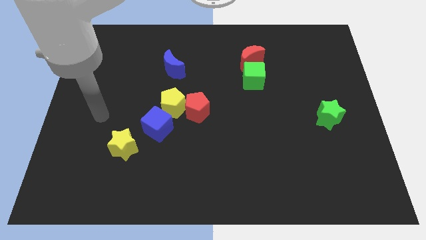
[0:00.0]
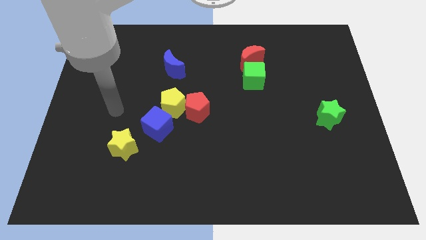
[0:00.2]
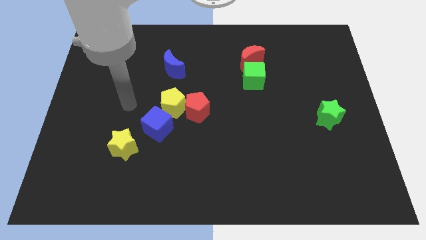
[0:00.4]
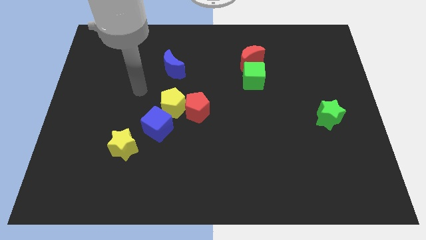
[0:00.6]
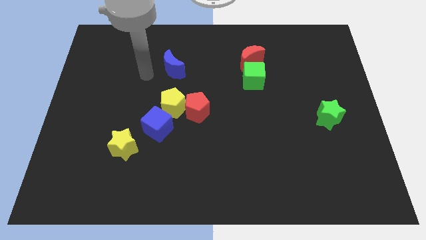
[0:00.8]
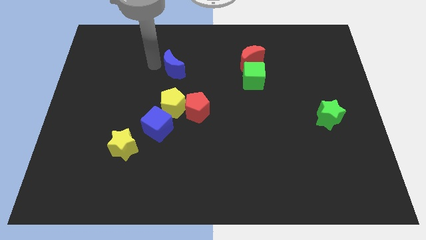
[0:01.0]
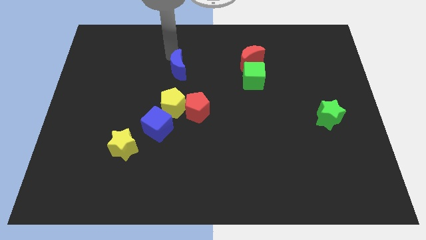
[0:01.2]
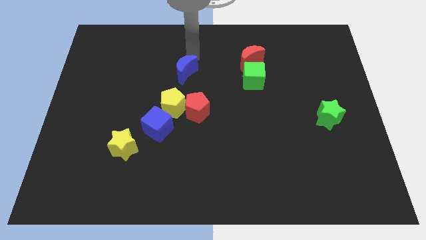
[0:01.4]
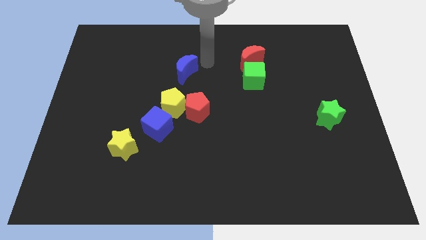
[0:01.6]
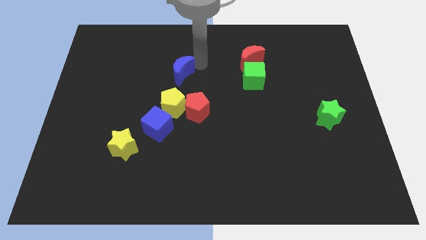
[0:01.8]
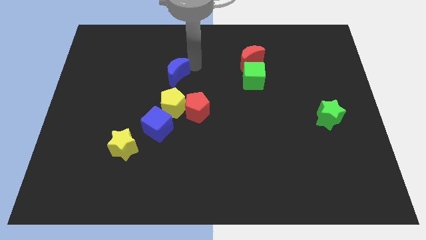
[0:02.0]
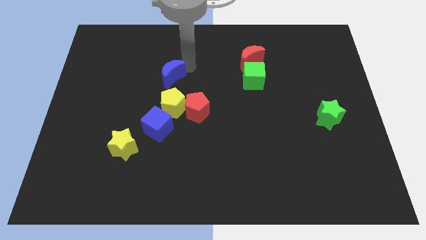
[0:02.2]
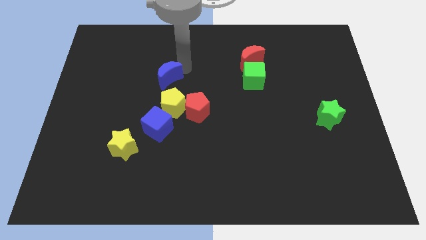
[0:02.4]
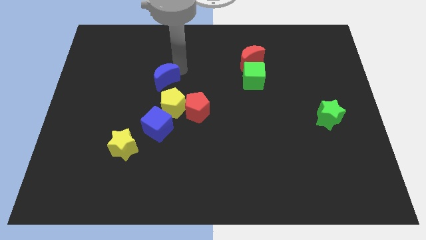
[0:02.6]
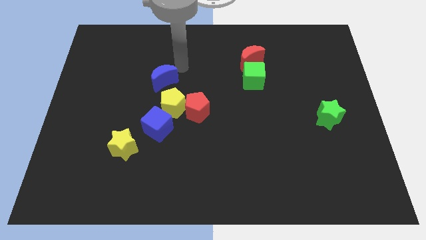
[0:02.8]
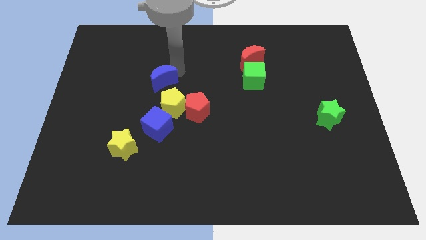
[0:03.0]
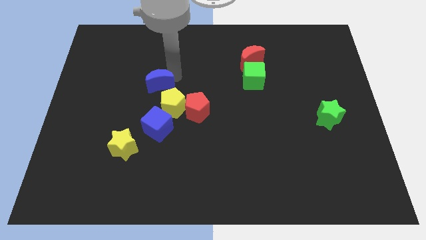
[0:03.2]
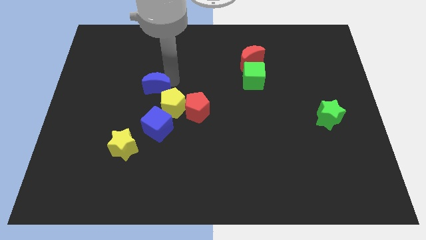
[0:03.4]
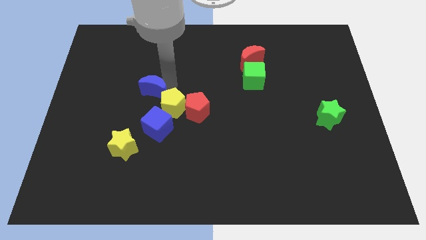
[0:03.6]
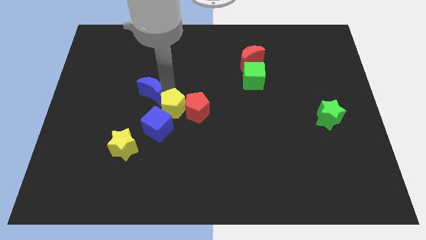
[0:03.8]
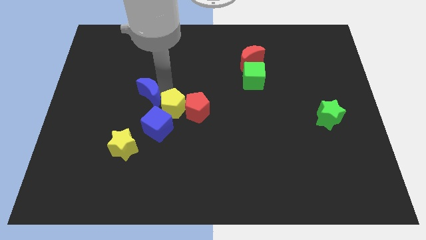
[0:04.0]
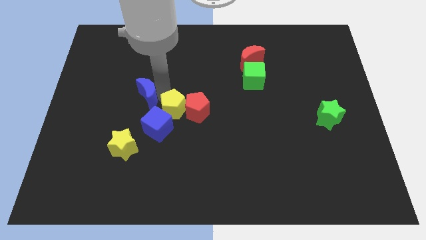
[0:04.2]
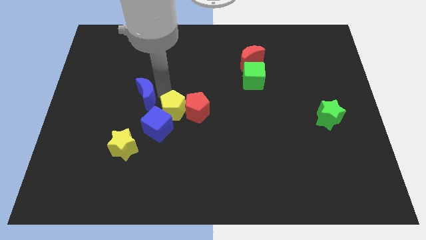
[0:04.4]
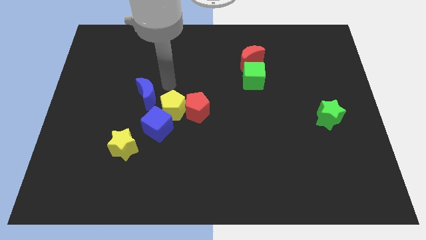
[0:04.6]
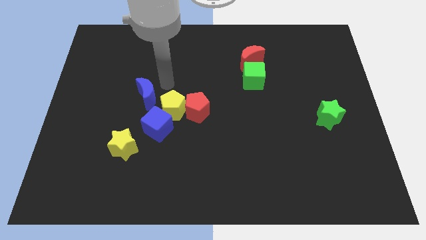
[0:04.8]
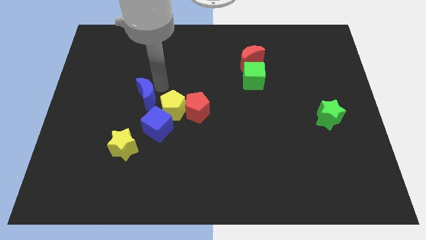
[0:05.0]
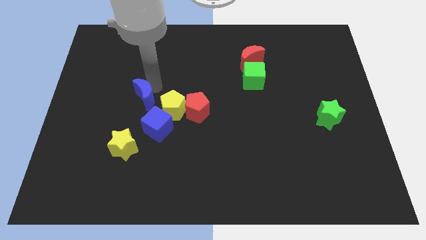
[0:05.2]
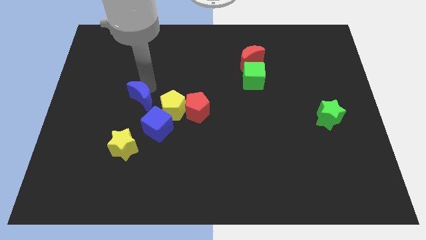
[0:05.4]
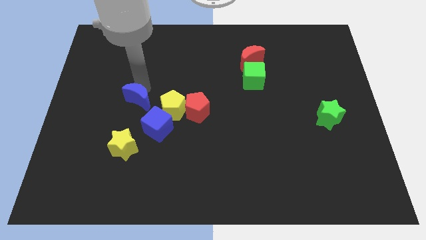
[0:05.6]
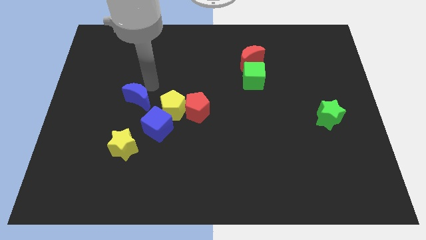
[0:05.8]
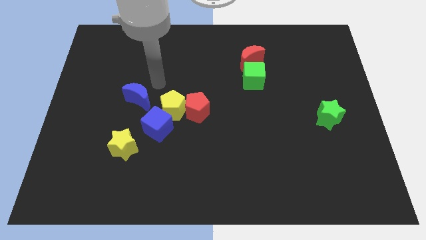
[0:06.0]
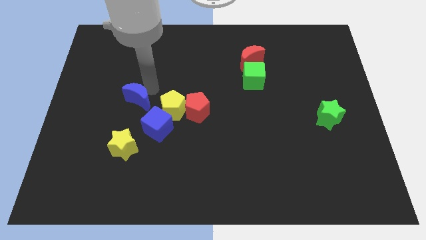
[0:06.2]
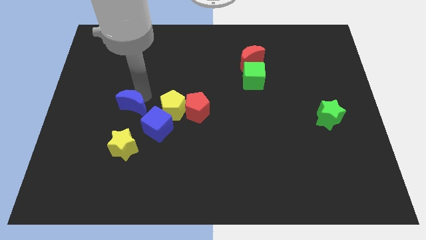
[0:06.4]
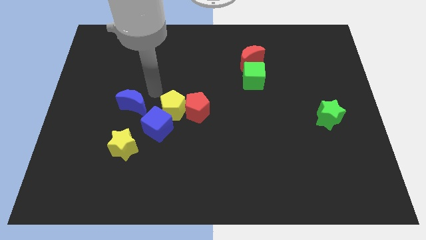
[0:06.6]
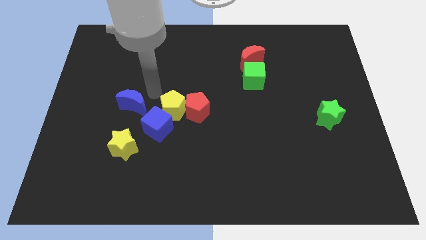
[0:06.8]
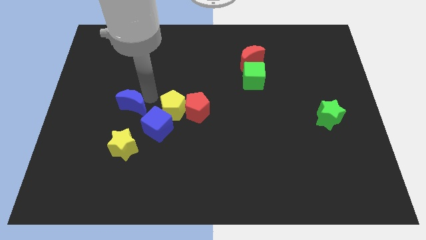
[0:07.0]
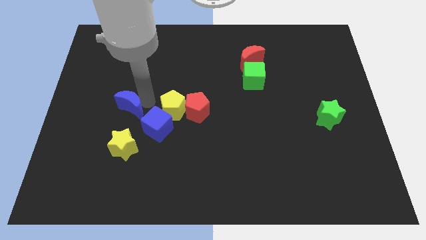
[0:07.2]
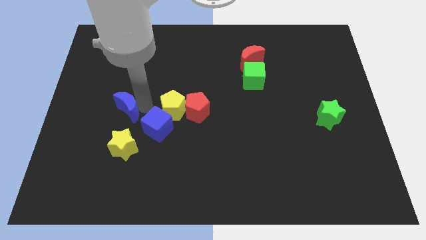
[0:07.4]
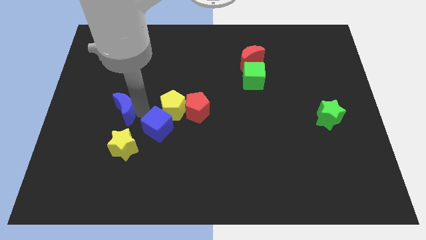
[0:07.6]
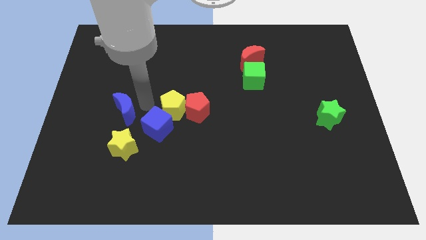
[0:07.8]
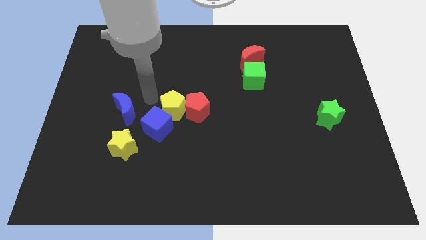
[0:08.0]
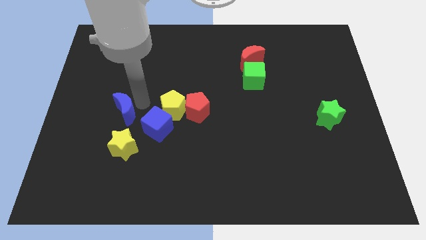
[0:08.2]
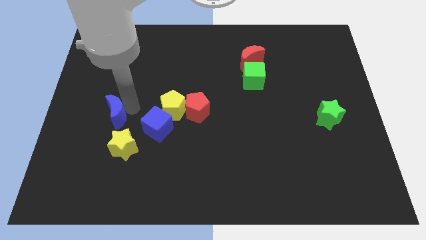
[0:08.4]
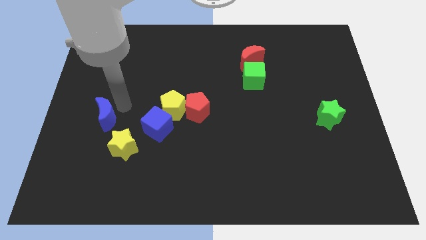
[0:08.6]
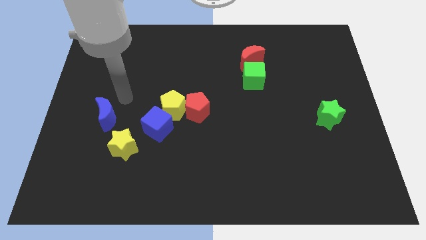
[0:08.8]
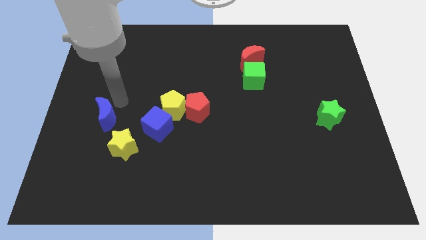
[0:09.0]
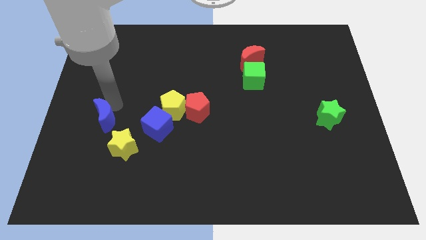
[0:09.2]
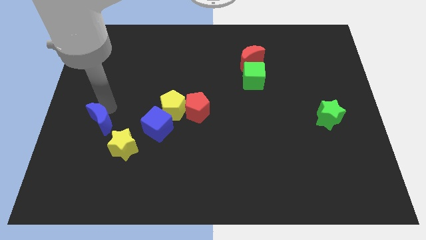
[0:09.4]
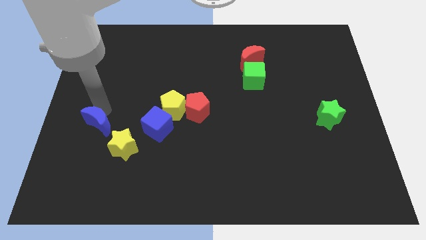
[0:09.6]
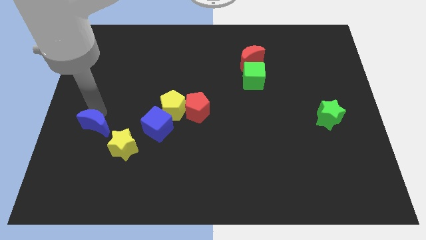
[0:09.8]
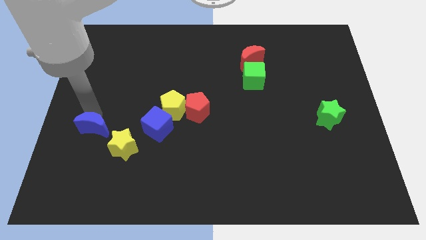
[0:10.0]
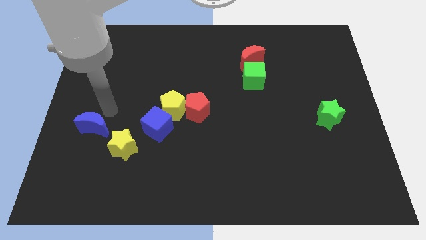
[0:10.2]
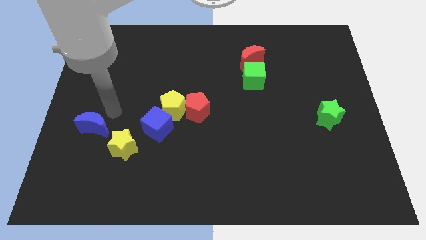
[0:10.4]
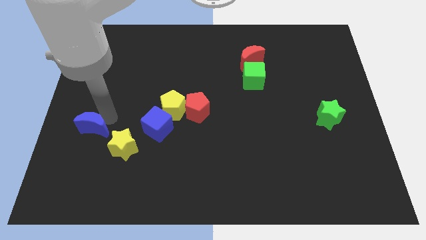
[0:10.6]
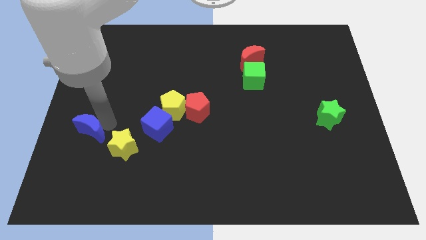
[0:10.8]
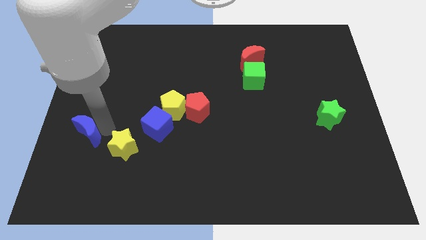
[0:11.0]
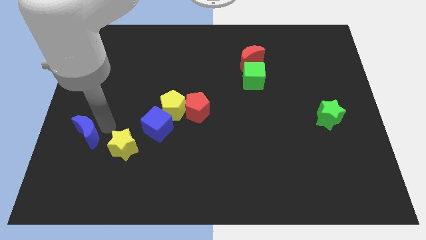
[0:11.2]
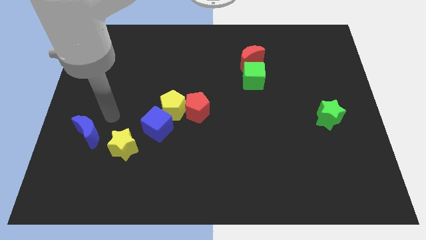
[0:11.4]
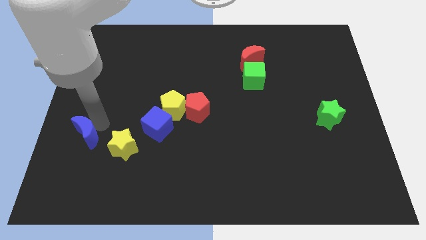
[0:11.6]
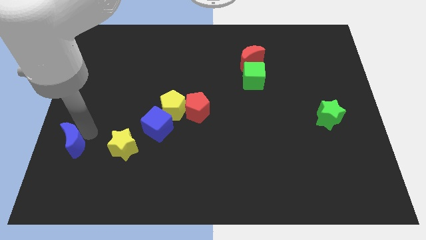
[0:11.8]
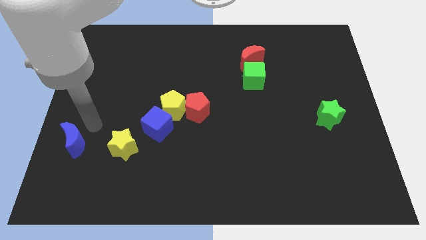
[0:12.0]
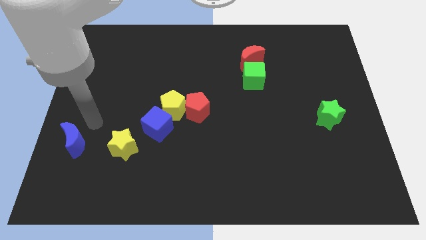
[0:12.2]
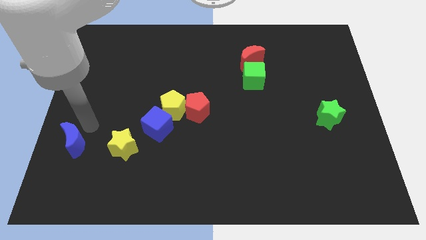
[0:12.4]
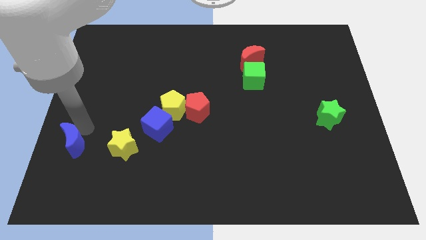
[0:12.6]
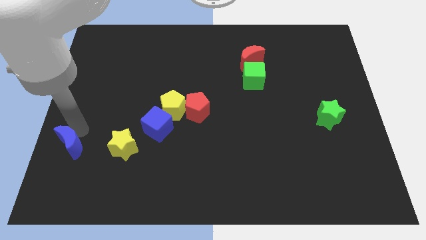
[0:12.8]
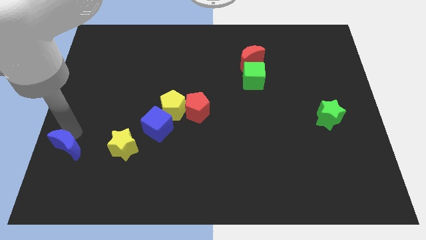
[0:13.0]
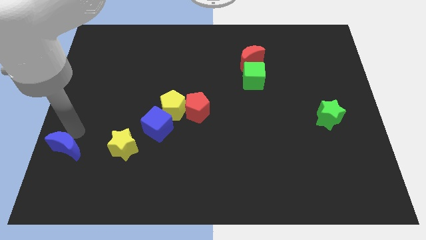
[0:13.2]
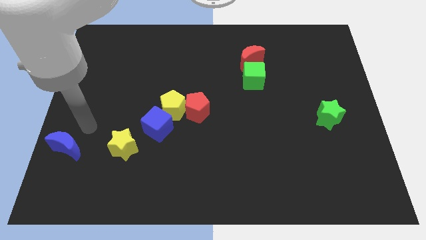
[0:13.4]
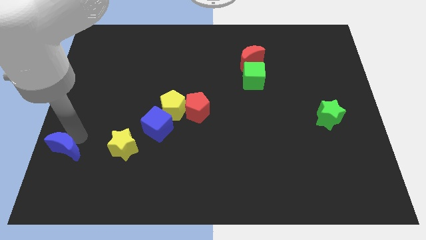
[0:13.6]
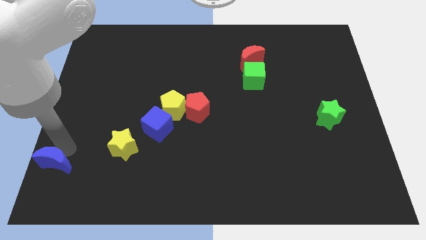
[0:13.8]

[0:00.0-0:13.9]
push the blue moon to the lower left corner
